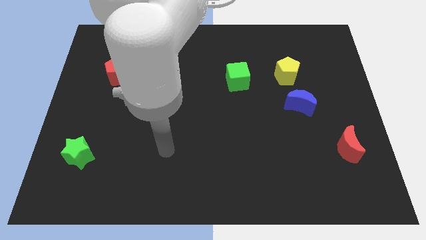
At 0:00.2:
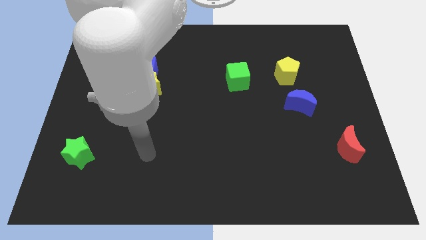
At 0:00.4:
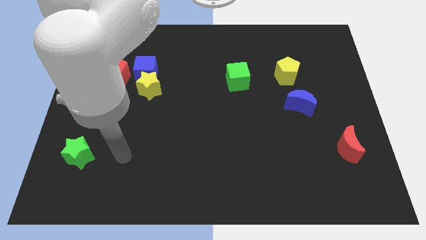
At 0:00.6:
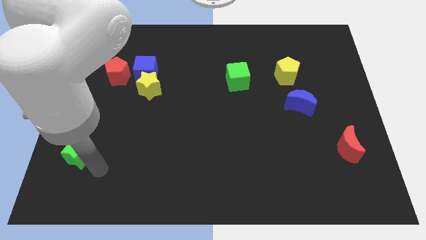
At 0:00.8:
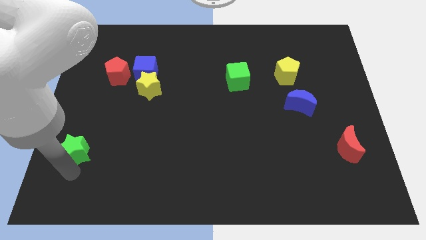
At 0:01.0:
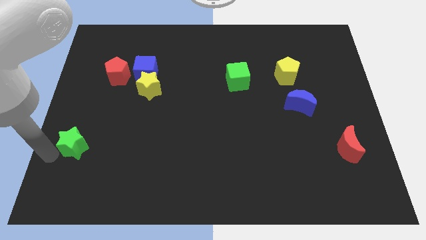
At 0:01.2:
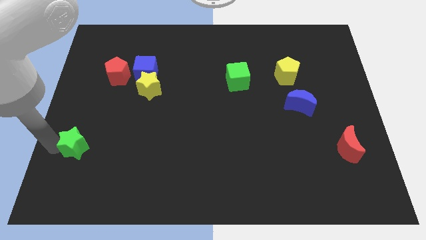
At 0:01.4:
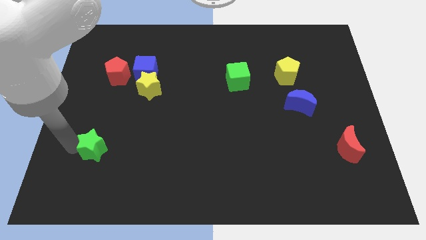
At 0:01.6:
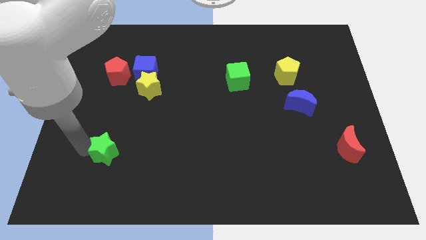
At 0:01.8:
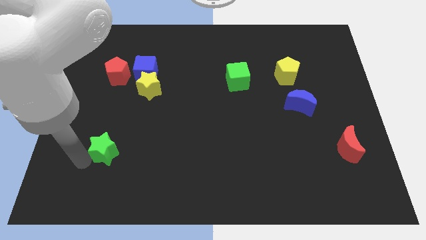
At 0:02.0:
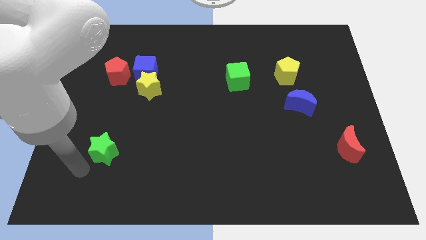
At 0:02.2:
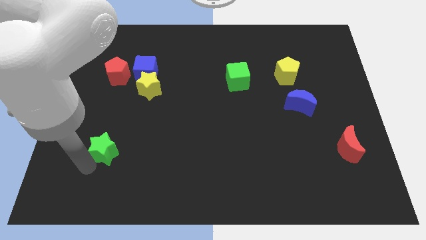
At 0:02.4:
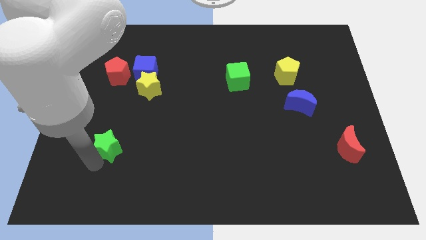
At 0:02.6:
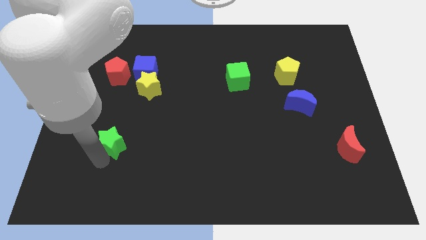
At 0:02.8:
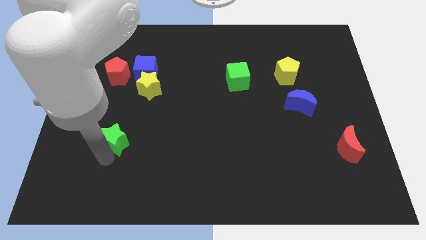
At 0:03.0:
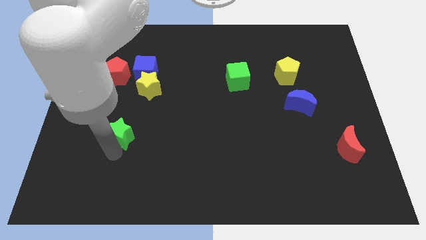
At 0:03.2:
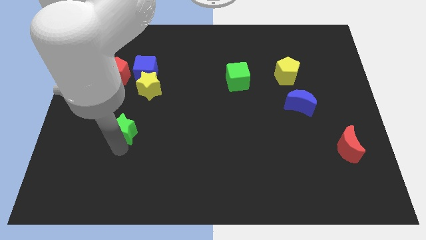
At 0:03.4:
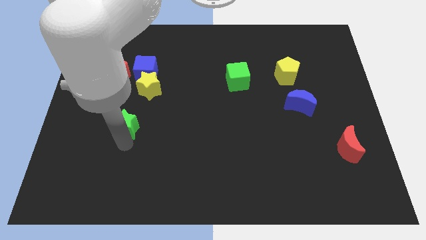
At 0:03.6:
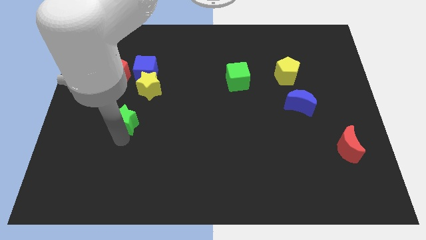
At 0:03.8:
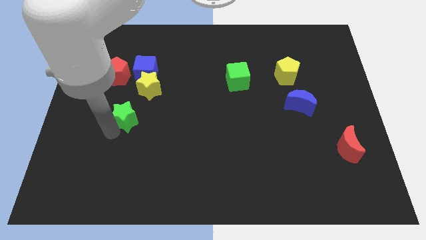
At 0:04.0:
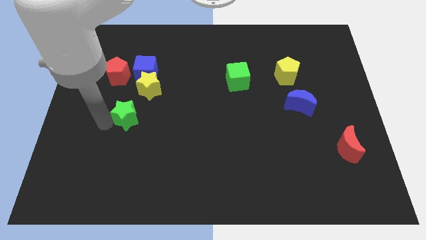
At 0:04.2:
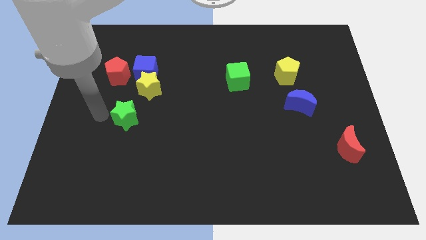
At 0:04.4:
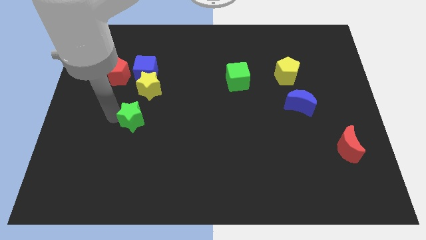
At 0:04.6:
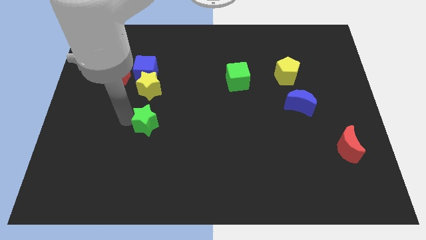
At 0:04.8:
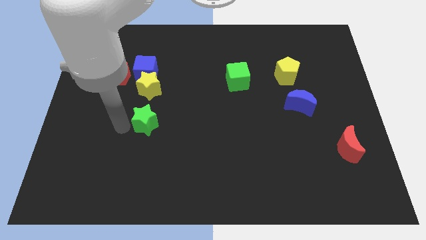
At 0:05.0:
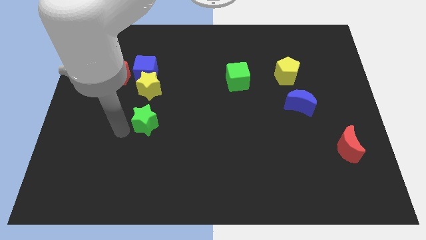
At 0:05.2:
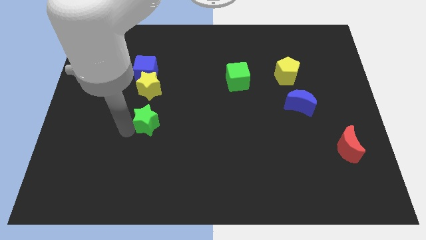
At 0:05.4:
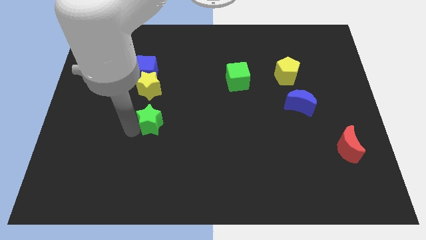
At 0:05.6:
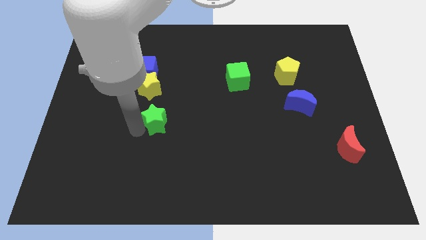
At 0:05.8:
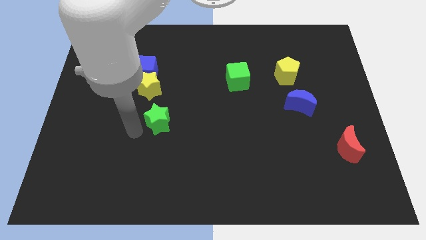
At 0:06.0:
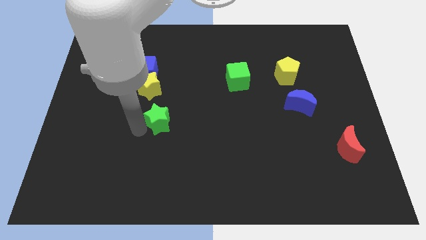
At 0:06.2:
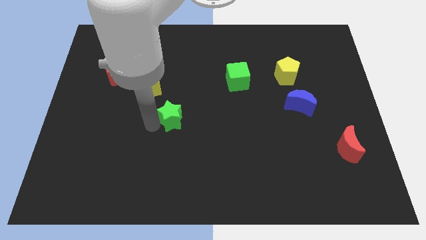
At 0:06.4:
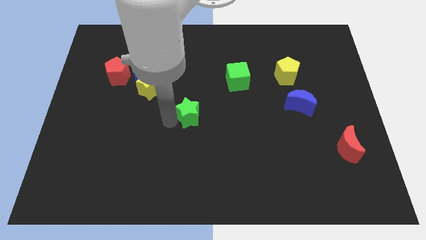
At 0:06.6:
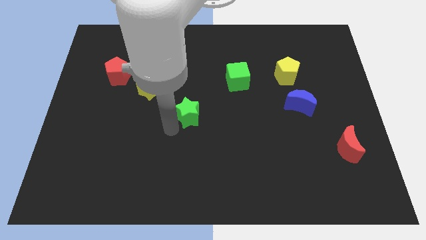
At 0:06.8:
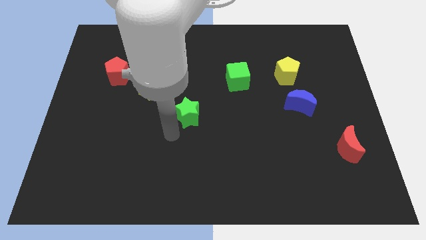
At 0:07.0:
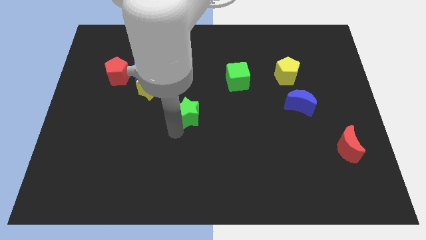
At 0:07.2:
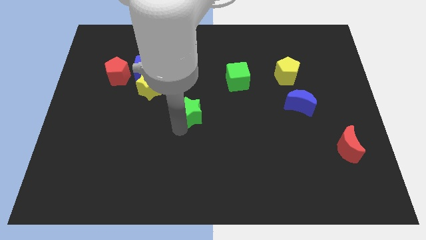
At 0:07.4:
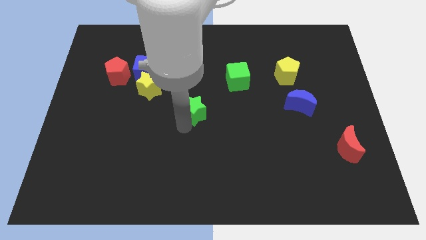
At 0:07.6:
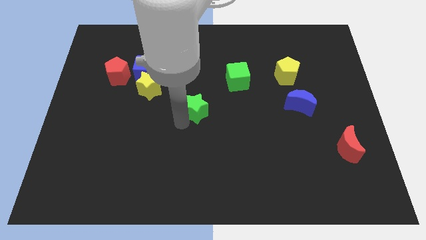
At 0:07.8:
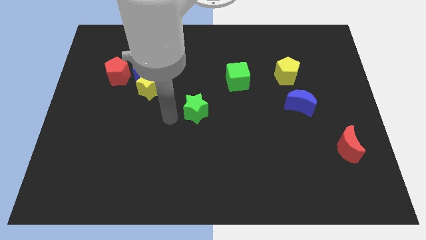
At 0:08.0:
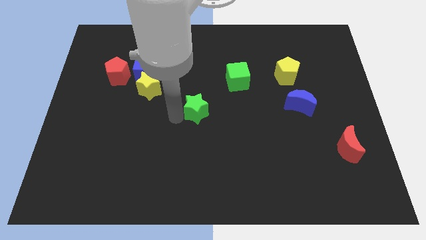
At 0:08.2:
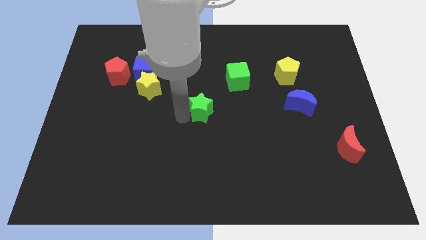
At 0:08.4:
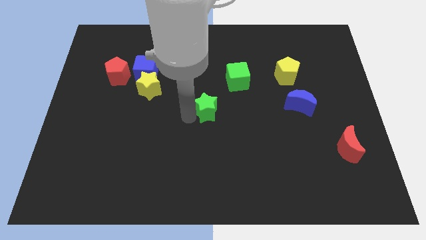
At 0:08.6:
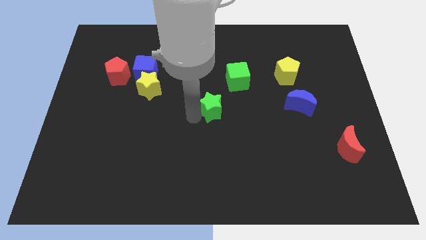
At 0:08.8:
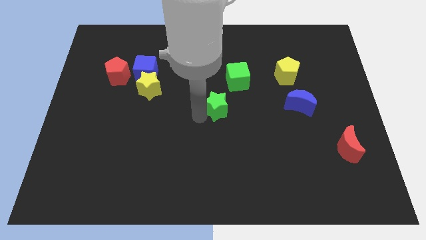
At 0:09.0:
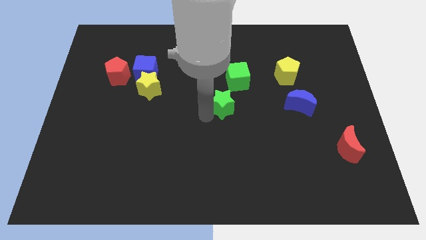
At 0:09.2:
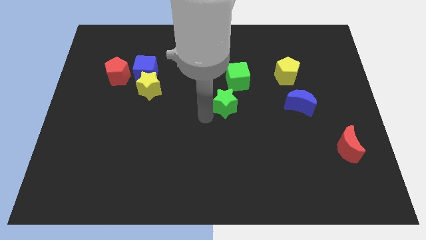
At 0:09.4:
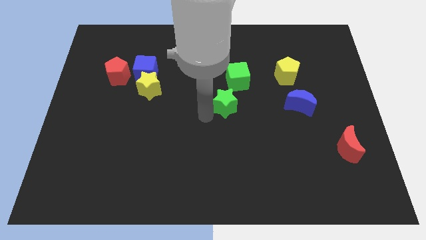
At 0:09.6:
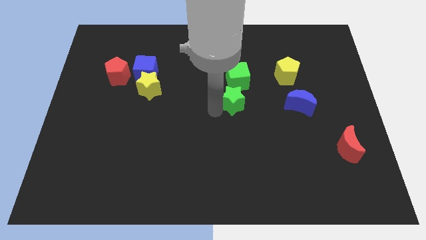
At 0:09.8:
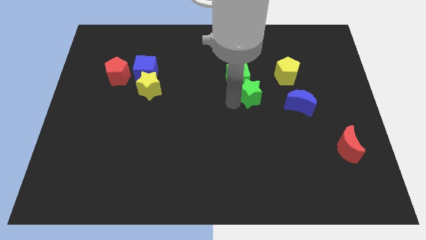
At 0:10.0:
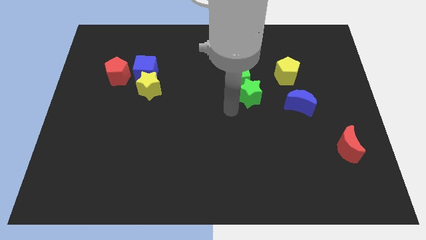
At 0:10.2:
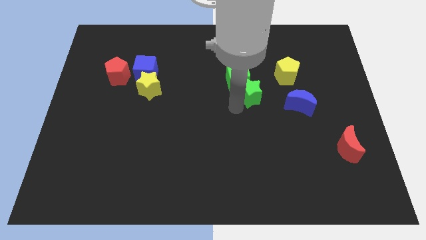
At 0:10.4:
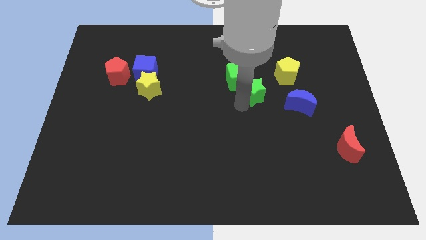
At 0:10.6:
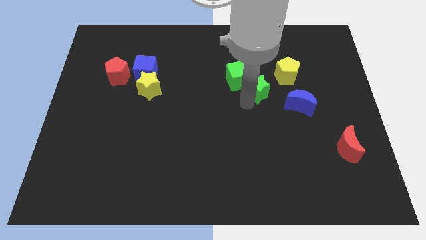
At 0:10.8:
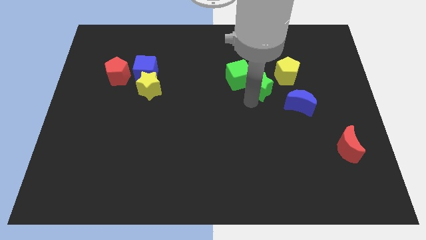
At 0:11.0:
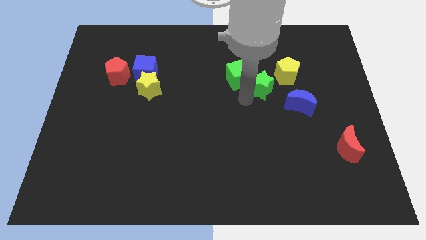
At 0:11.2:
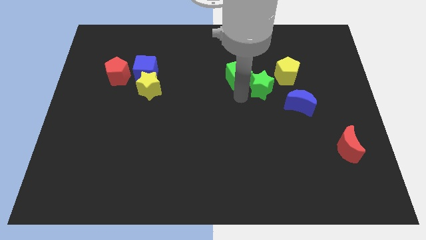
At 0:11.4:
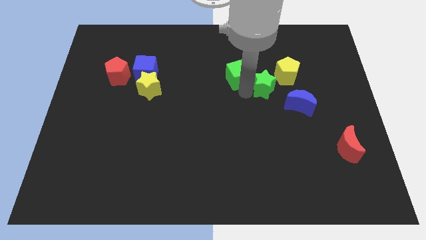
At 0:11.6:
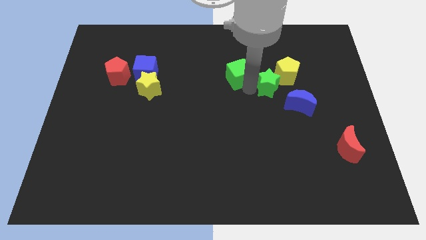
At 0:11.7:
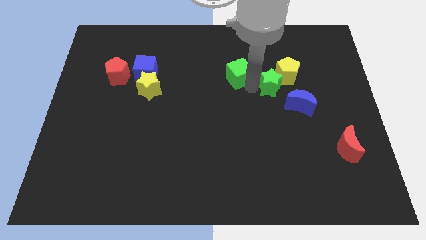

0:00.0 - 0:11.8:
put the green star towards the yellow pentagon

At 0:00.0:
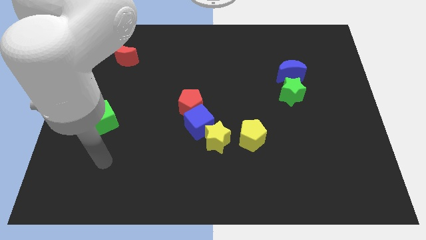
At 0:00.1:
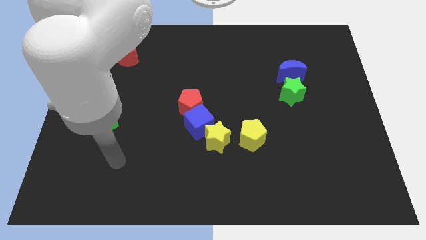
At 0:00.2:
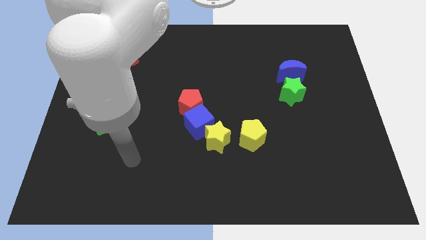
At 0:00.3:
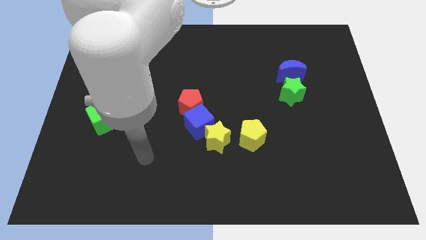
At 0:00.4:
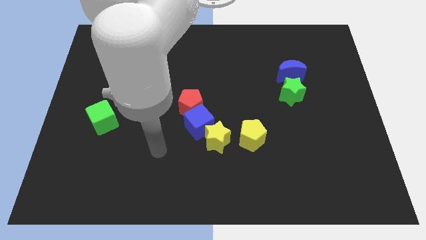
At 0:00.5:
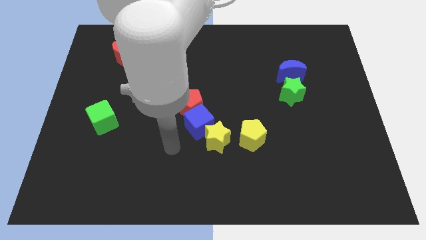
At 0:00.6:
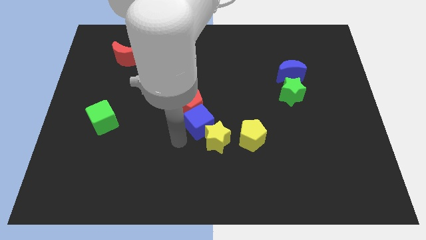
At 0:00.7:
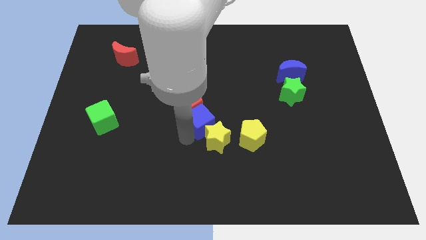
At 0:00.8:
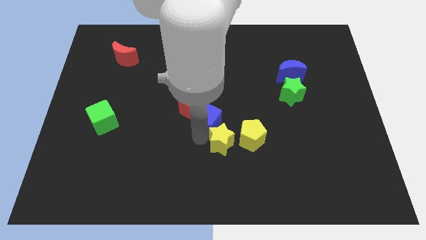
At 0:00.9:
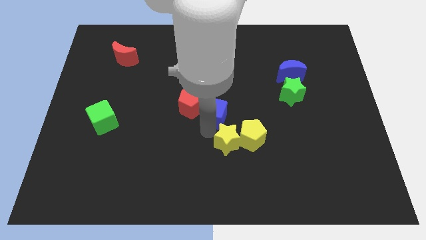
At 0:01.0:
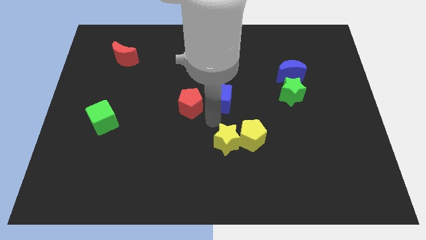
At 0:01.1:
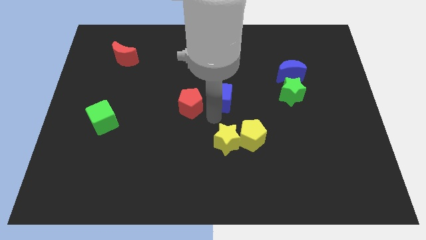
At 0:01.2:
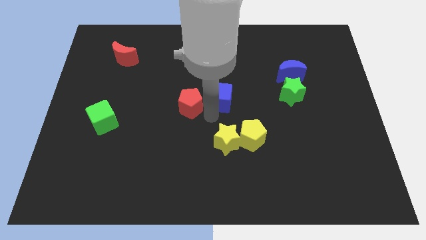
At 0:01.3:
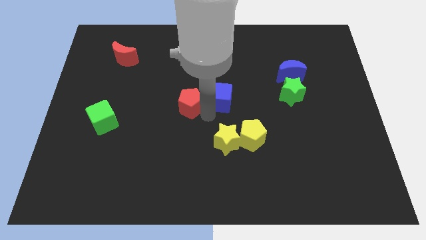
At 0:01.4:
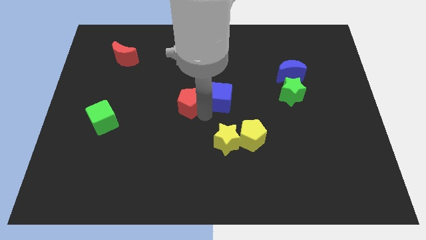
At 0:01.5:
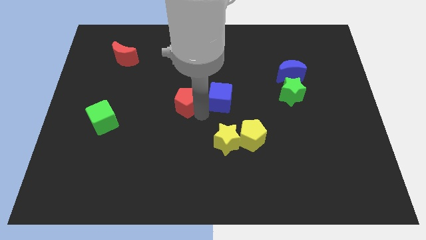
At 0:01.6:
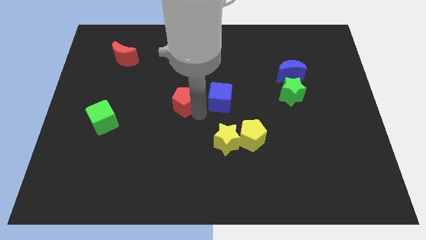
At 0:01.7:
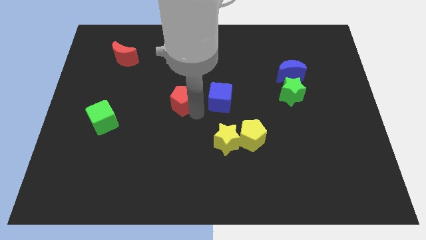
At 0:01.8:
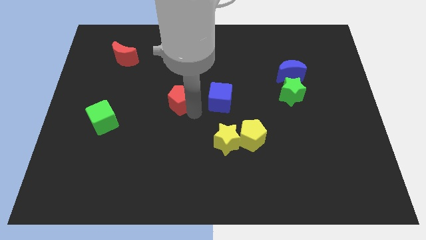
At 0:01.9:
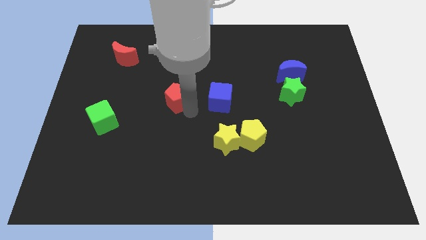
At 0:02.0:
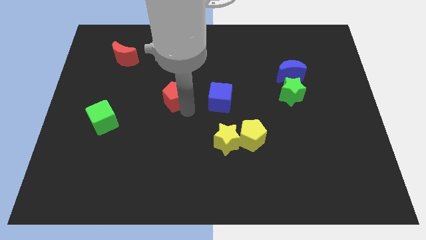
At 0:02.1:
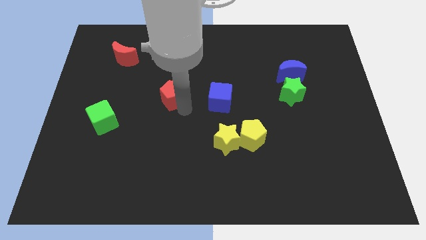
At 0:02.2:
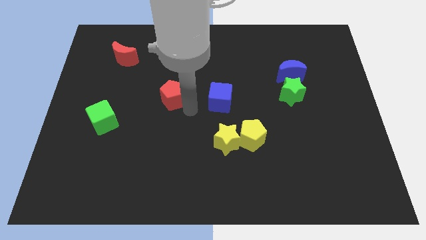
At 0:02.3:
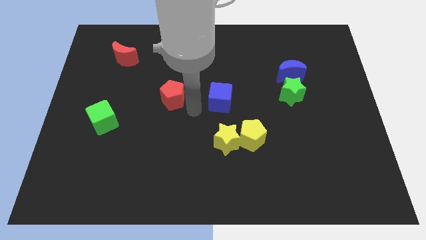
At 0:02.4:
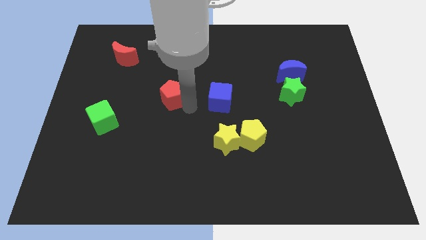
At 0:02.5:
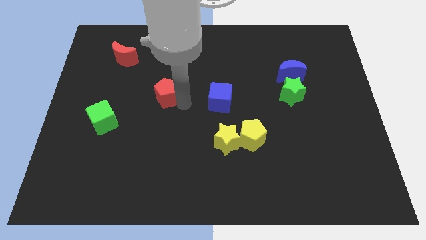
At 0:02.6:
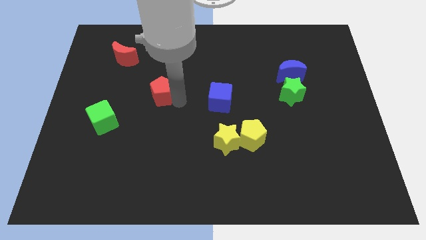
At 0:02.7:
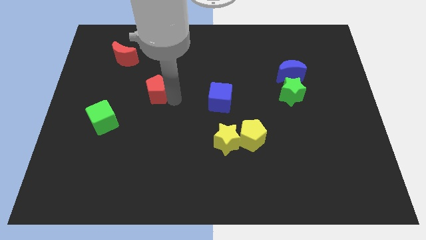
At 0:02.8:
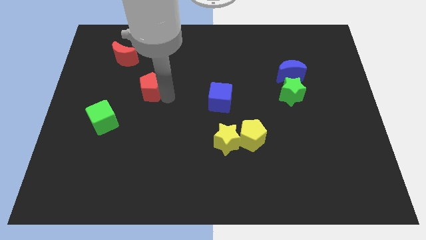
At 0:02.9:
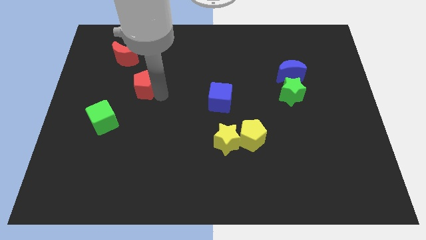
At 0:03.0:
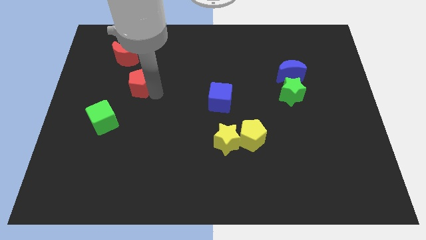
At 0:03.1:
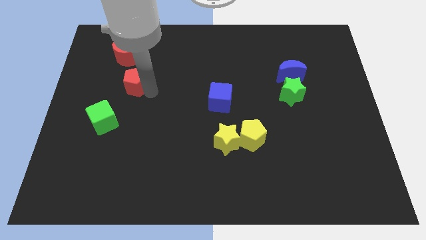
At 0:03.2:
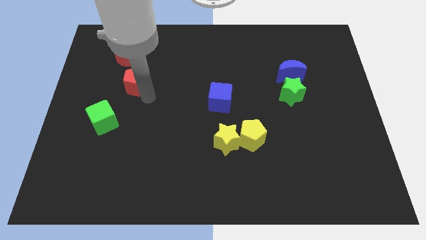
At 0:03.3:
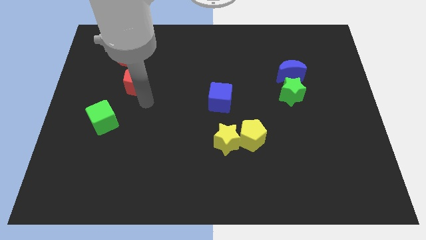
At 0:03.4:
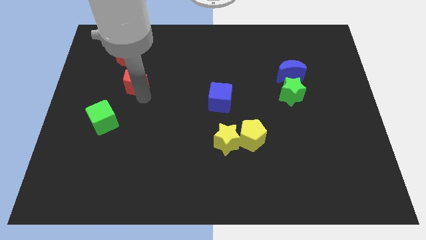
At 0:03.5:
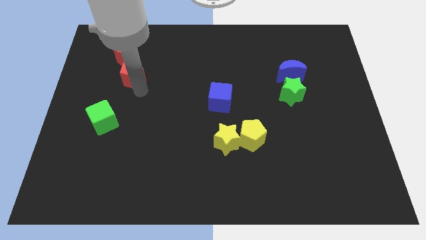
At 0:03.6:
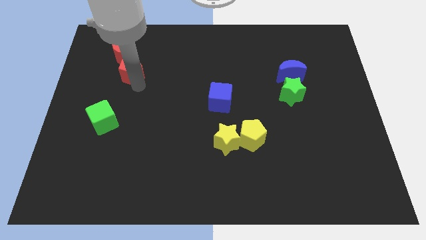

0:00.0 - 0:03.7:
put the red pentagon towards the red moon
